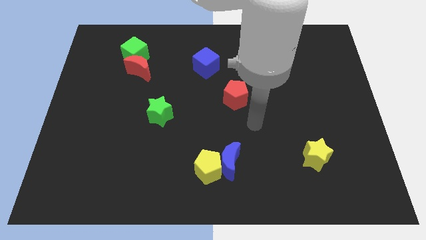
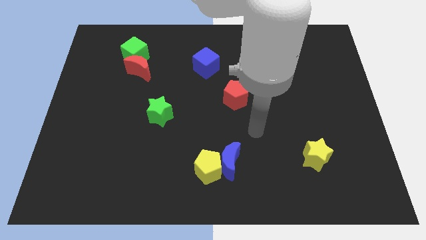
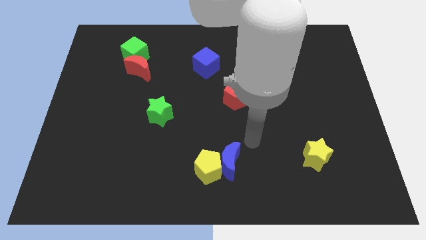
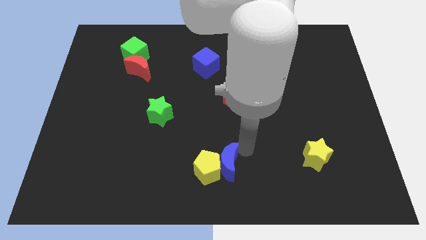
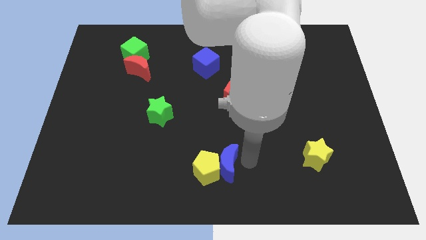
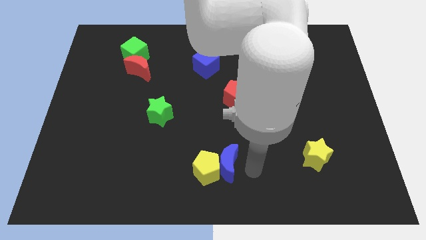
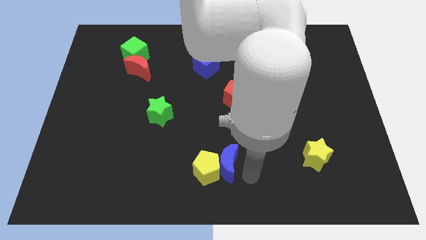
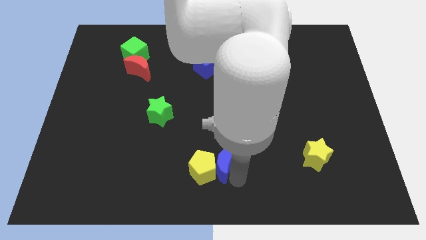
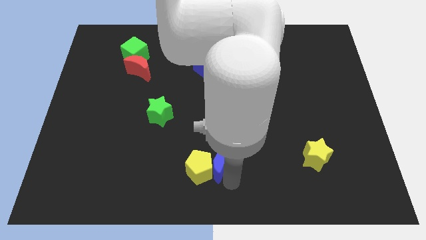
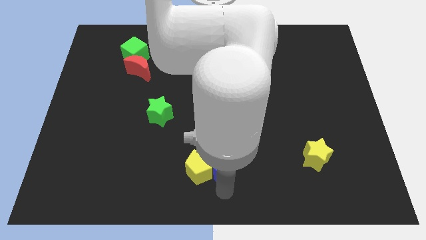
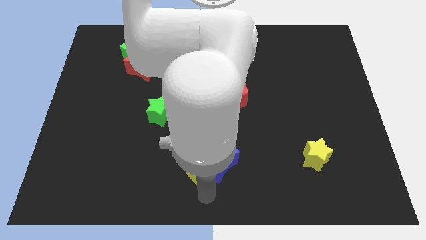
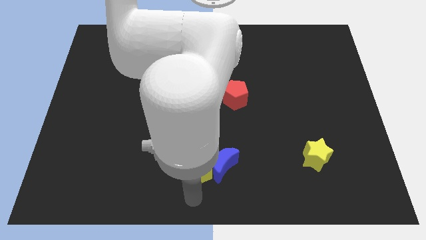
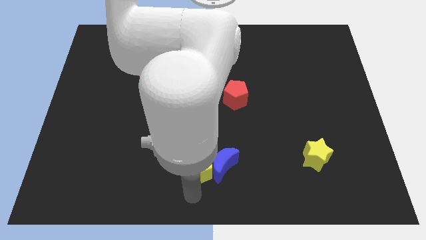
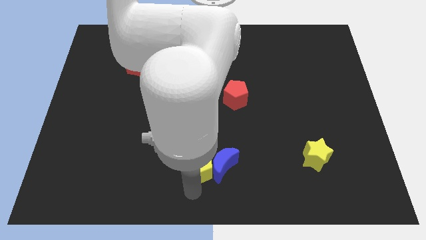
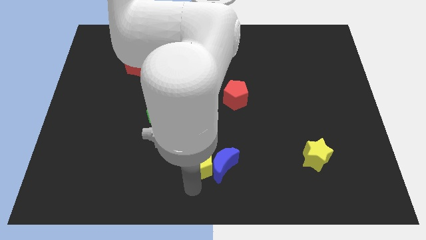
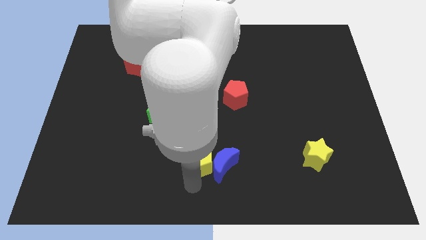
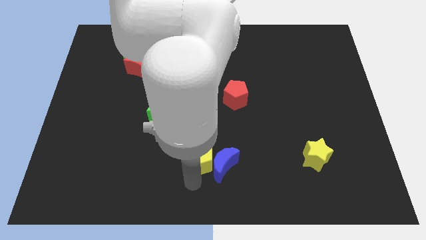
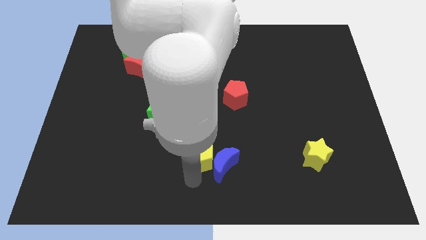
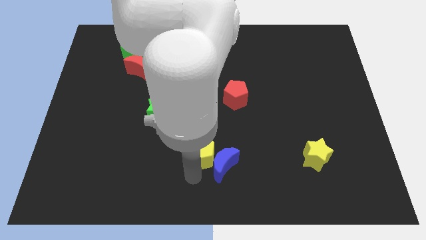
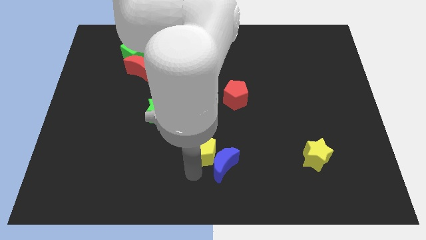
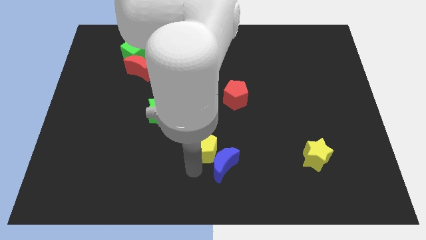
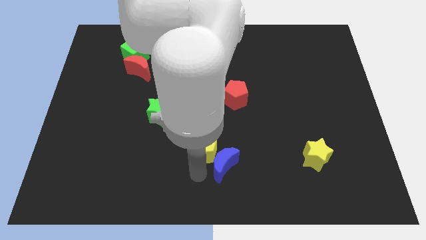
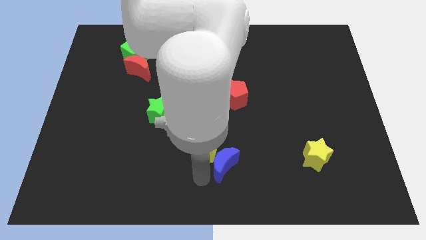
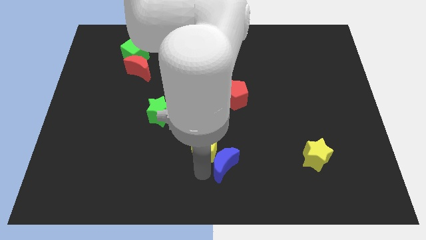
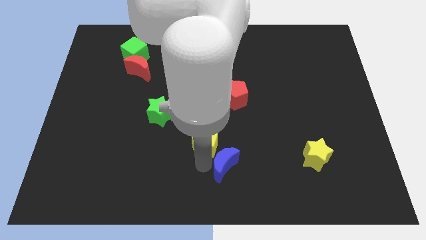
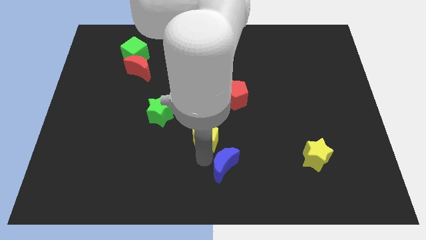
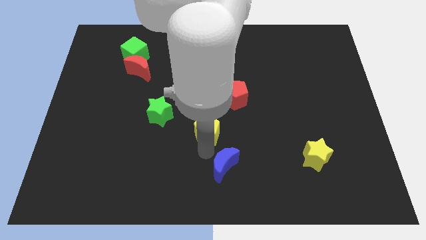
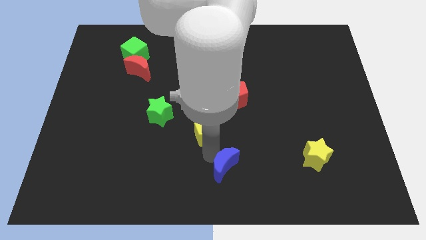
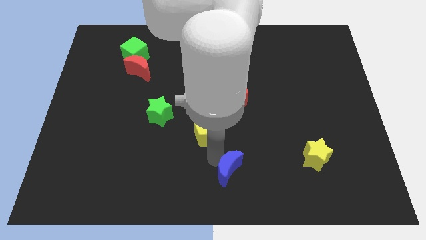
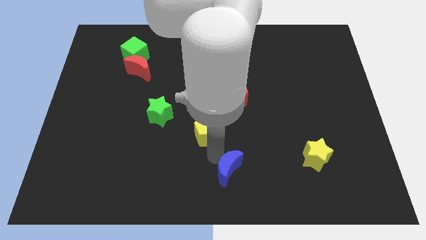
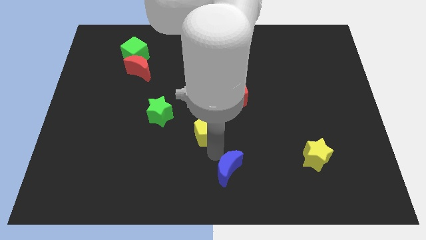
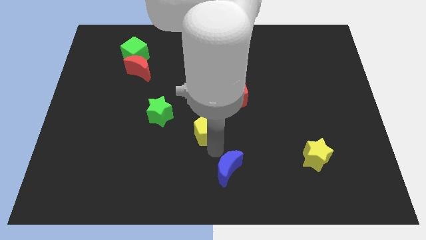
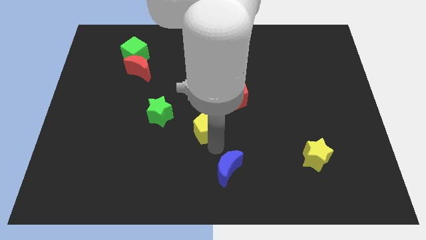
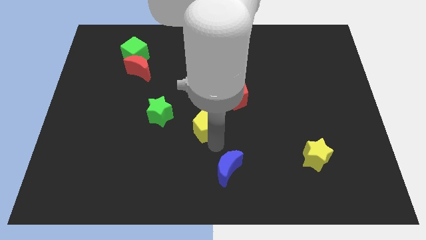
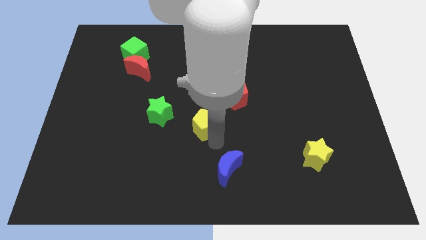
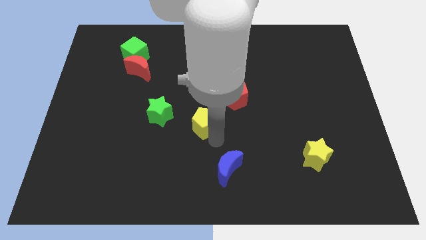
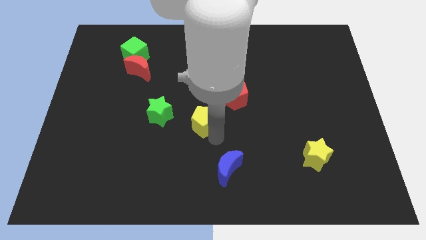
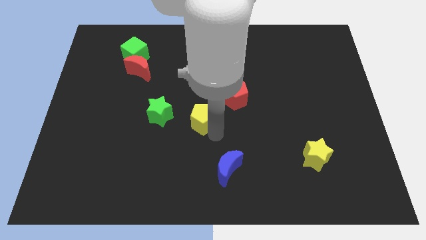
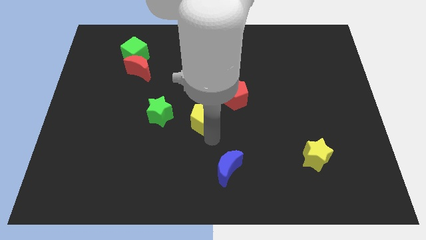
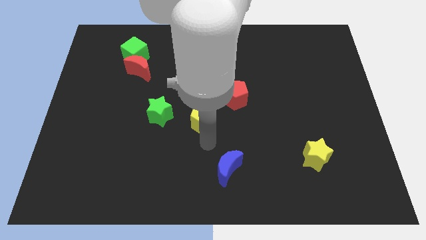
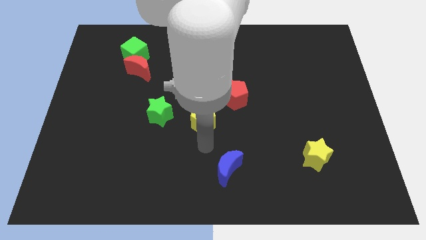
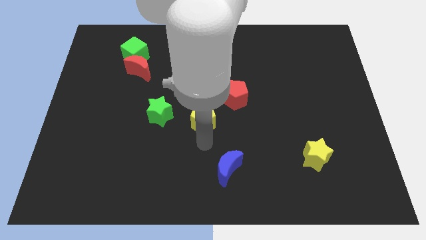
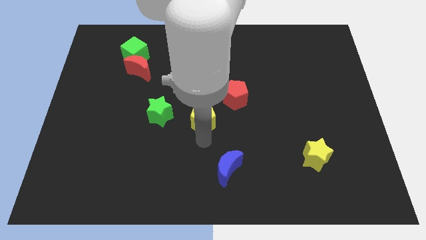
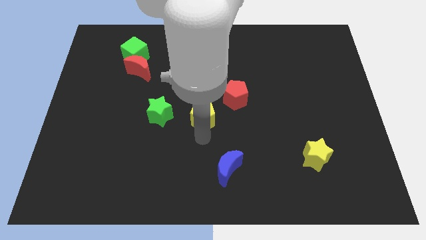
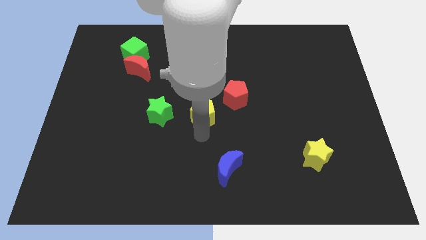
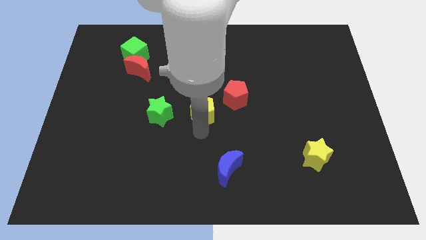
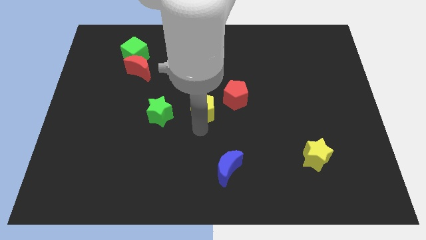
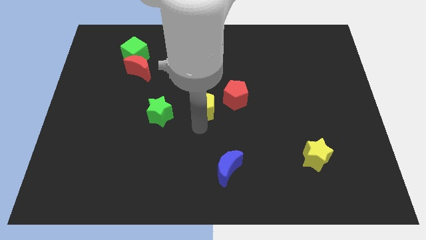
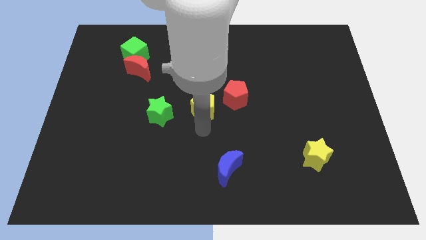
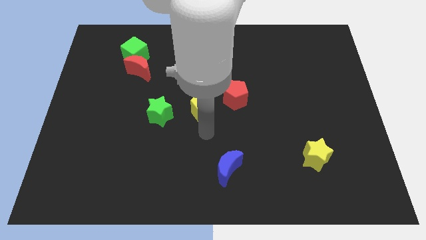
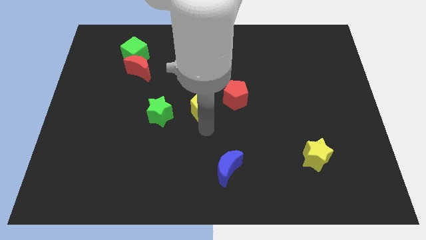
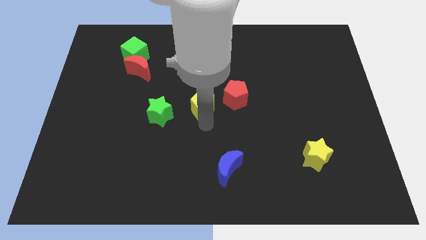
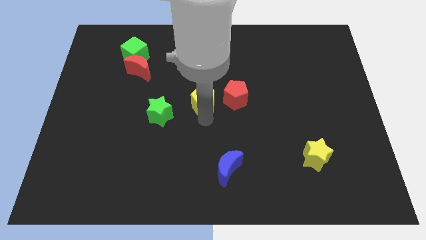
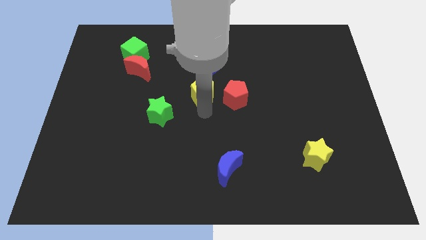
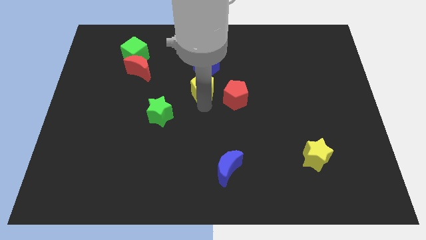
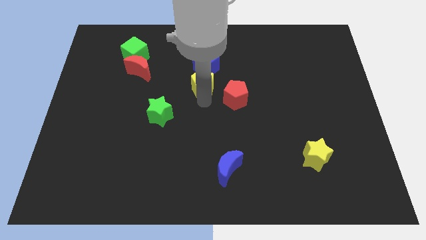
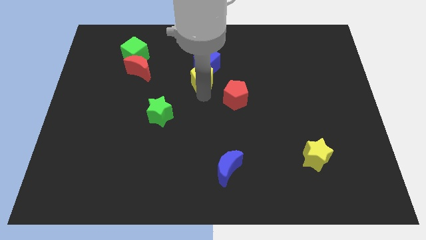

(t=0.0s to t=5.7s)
put the yellow pentagon close to the blue cube

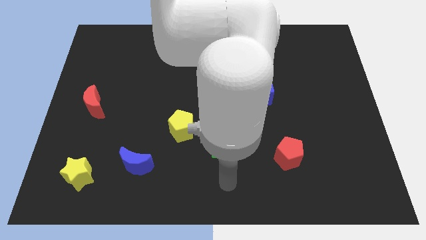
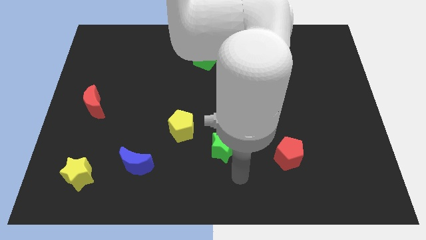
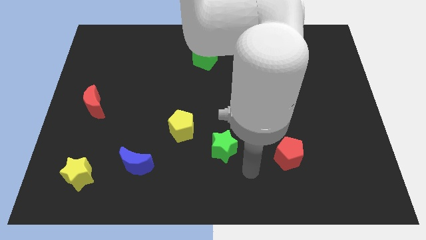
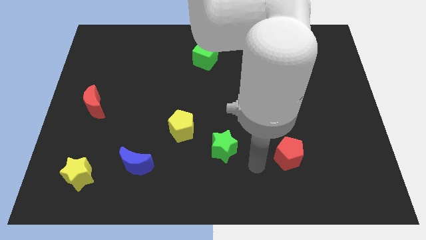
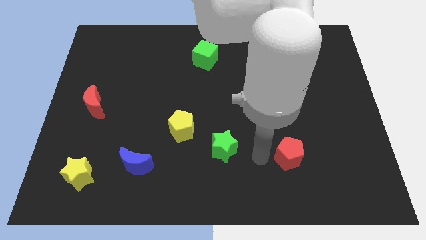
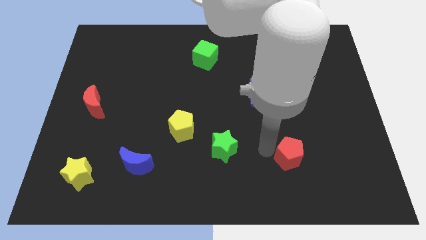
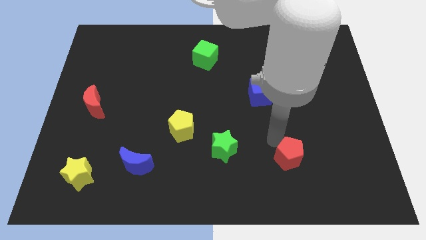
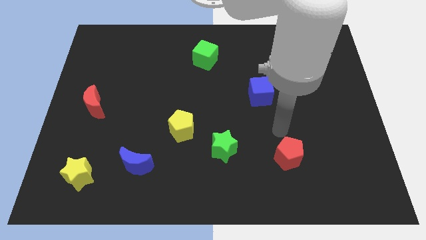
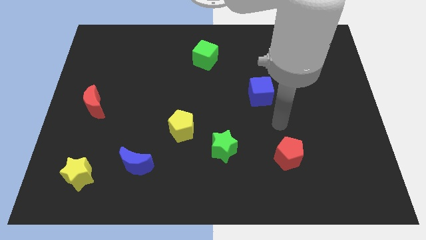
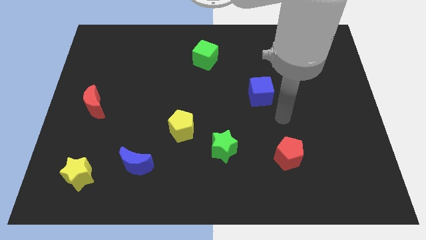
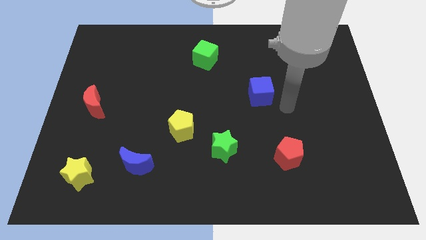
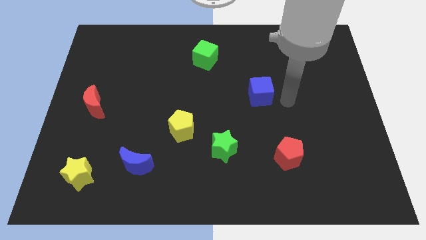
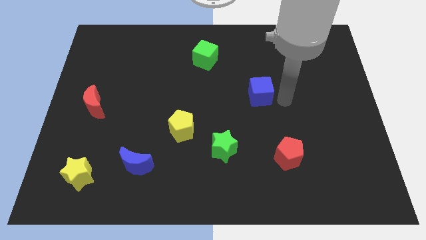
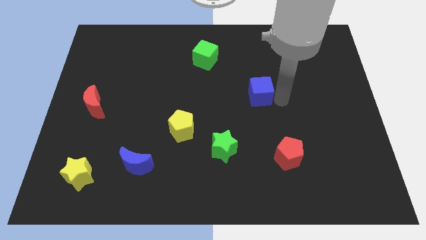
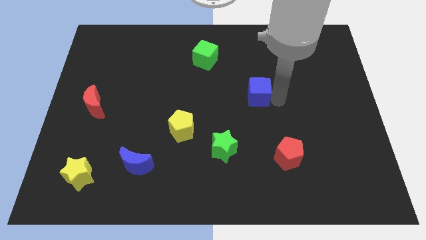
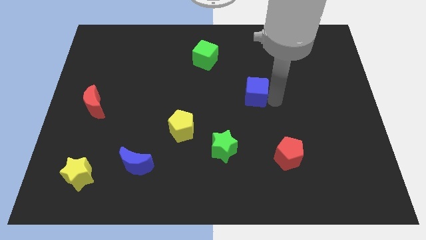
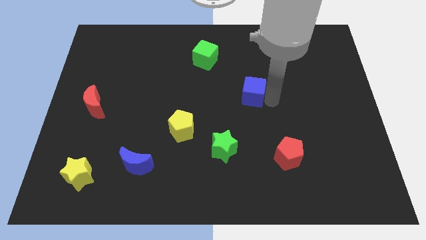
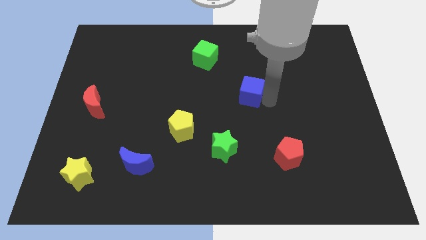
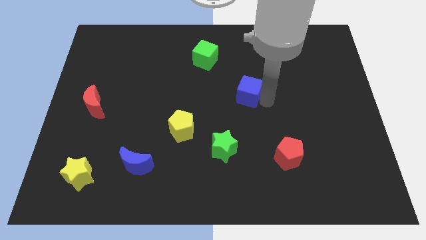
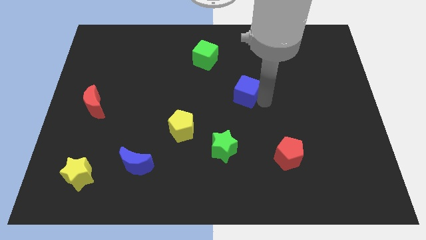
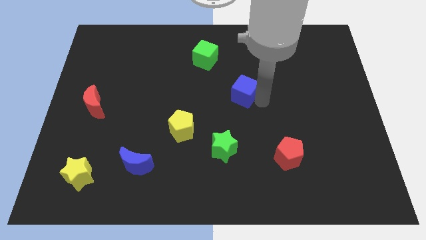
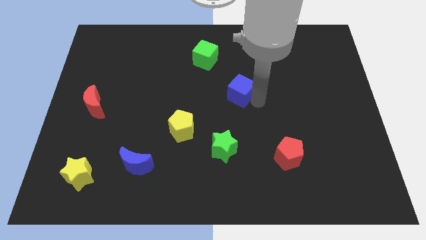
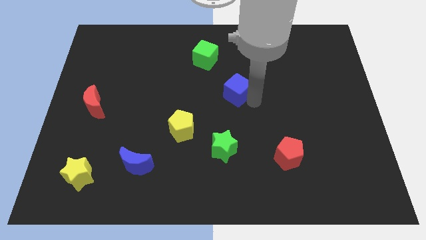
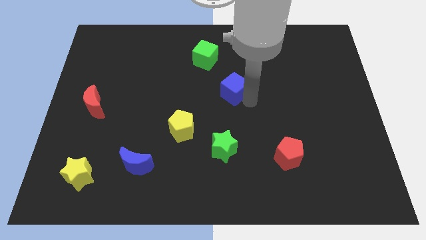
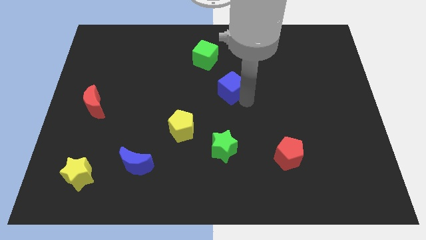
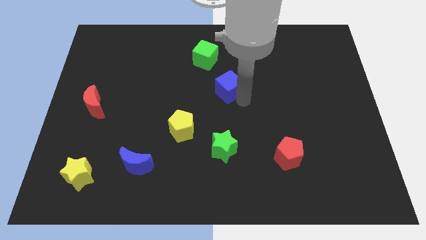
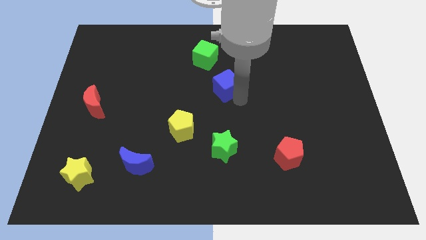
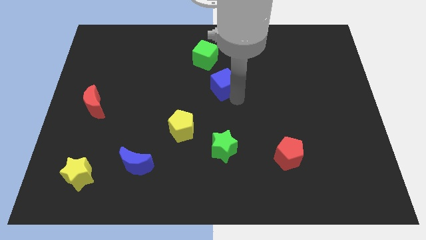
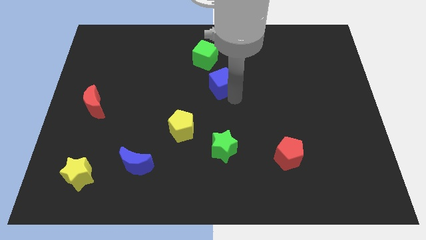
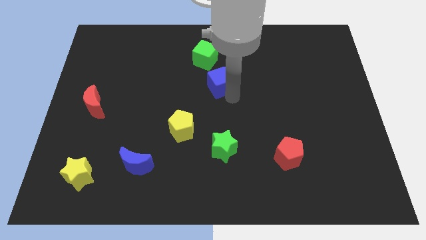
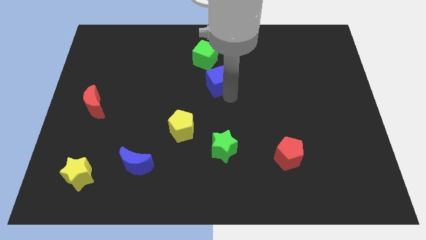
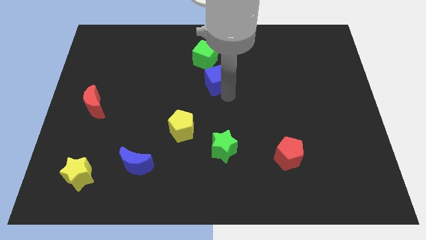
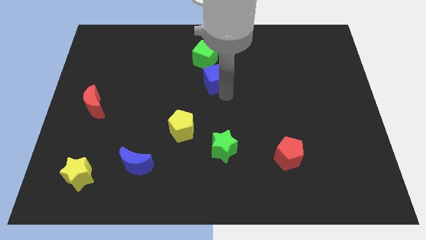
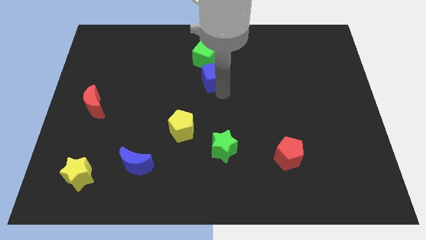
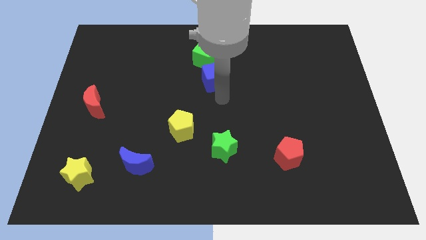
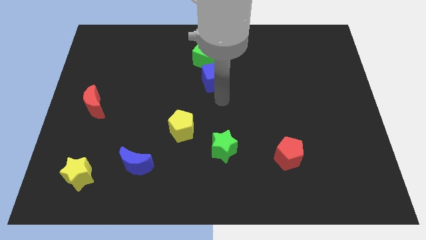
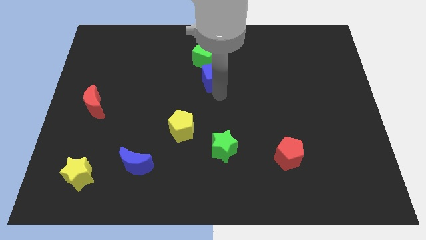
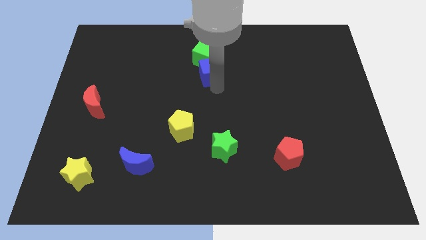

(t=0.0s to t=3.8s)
push the blue cube towards the green cube
